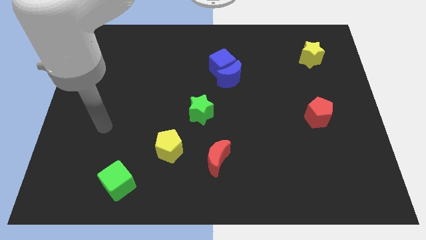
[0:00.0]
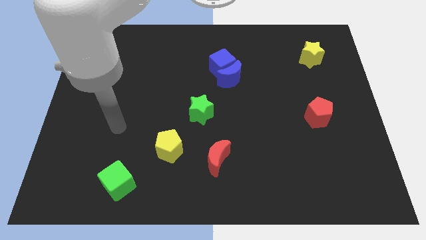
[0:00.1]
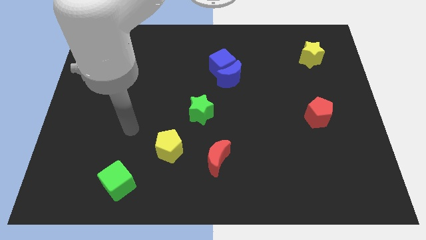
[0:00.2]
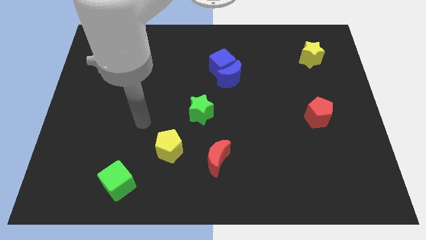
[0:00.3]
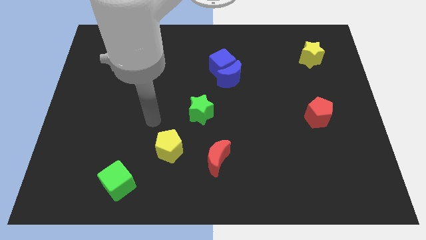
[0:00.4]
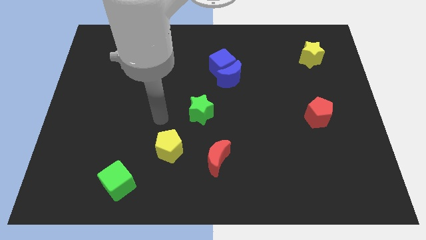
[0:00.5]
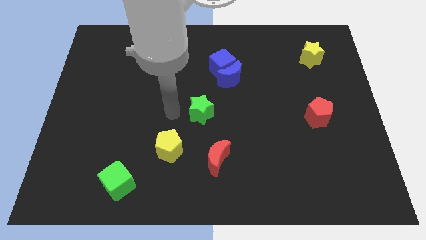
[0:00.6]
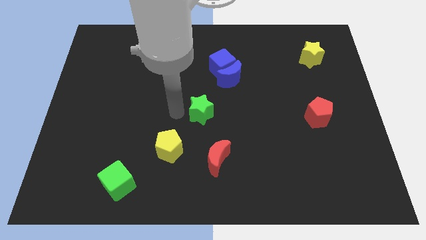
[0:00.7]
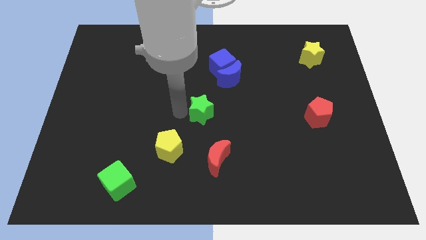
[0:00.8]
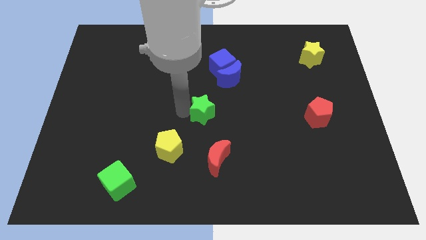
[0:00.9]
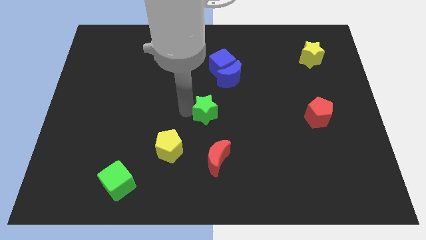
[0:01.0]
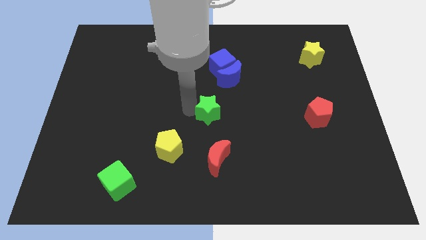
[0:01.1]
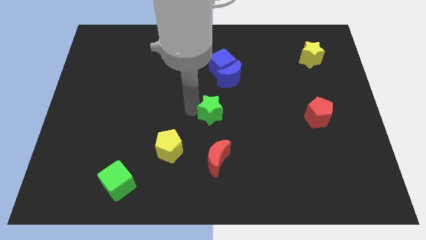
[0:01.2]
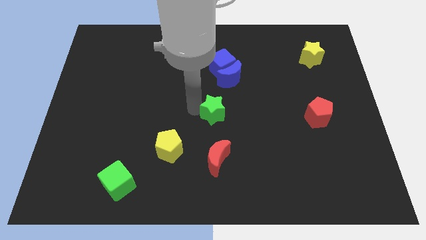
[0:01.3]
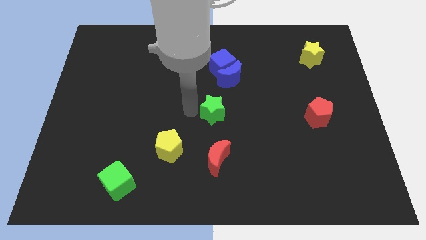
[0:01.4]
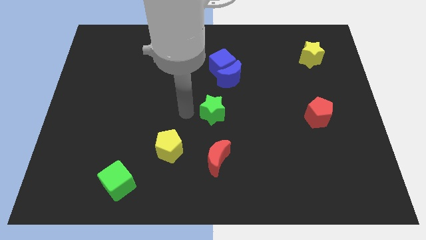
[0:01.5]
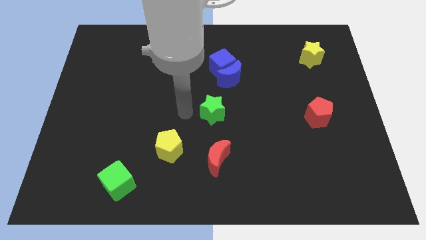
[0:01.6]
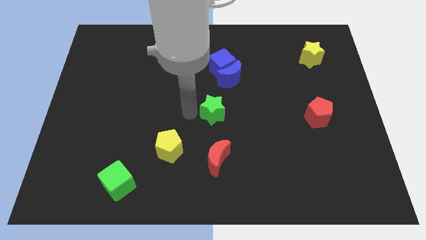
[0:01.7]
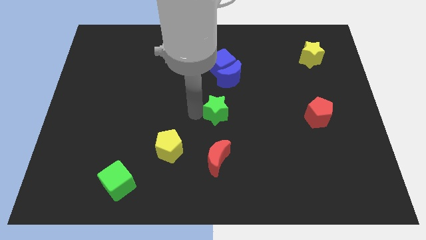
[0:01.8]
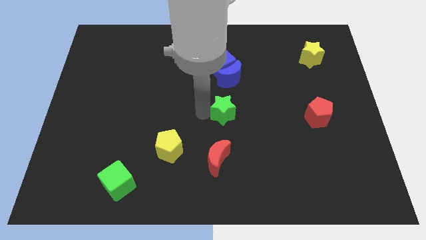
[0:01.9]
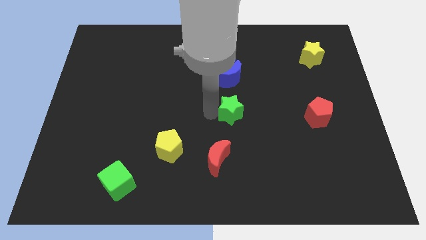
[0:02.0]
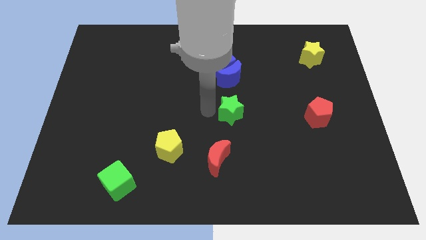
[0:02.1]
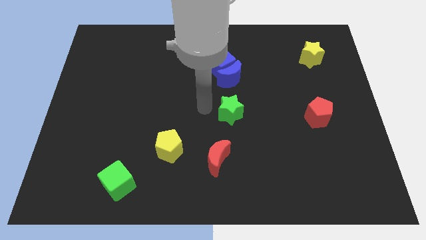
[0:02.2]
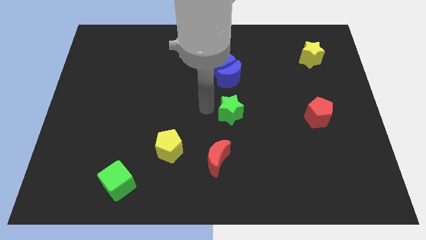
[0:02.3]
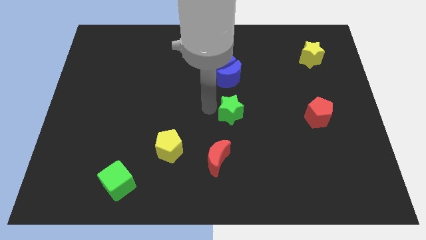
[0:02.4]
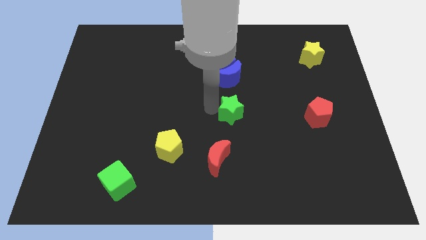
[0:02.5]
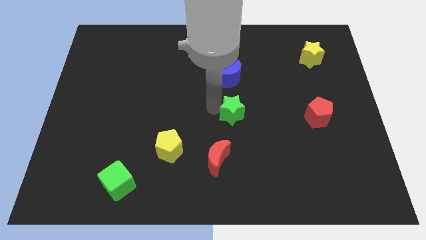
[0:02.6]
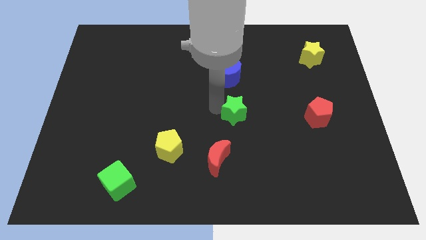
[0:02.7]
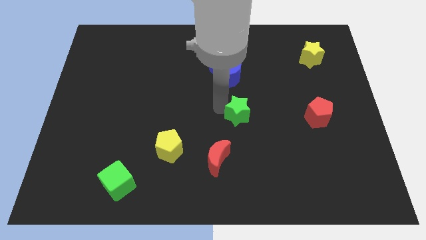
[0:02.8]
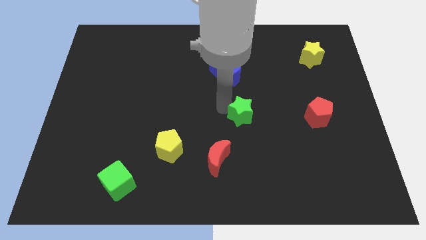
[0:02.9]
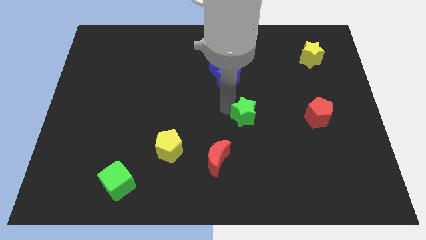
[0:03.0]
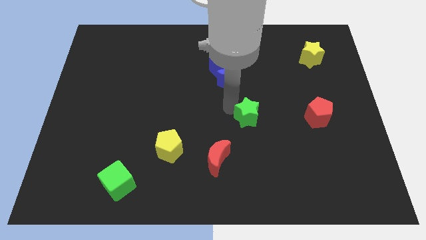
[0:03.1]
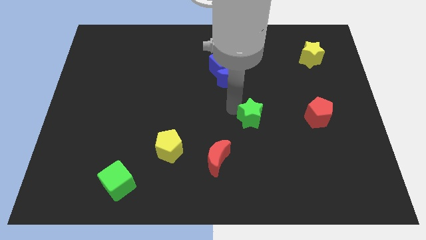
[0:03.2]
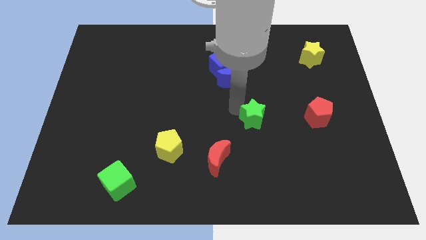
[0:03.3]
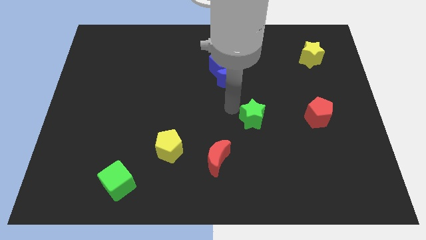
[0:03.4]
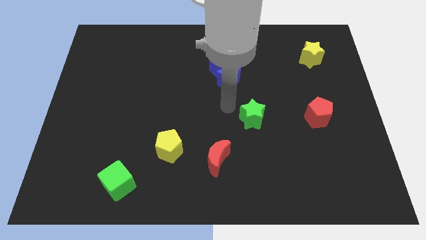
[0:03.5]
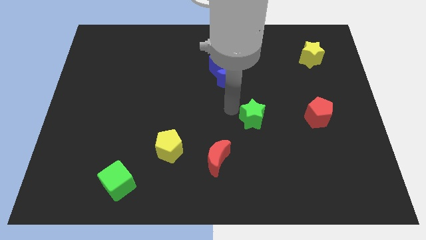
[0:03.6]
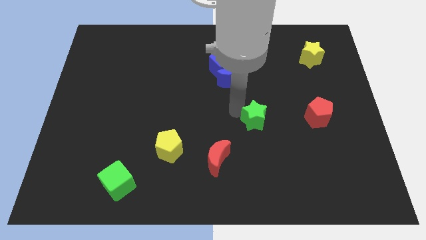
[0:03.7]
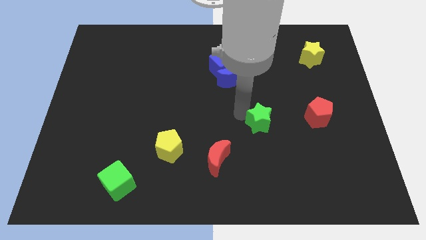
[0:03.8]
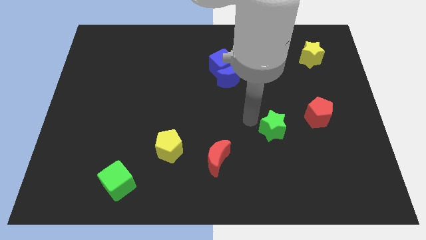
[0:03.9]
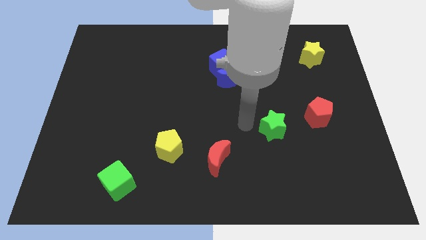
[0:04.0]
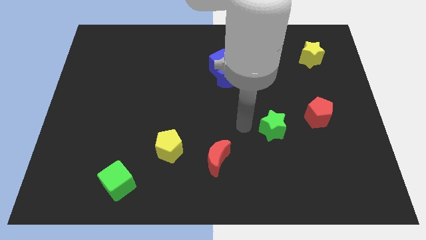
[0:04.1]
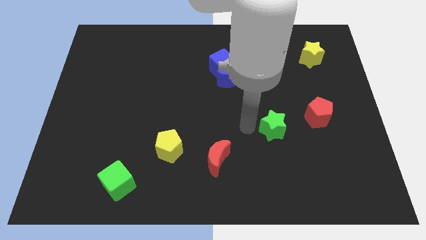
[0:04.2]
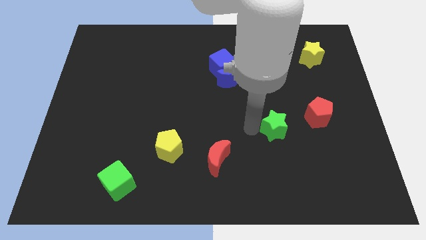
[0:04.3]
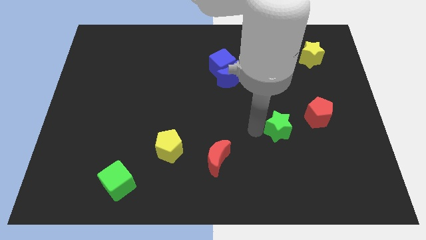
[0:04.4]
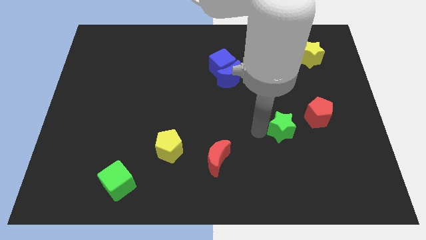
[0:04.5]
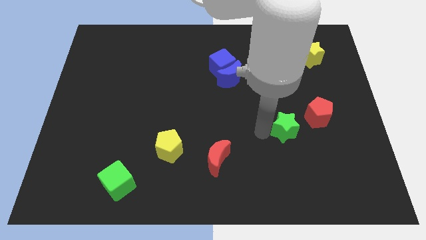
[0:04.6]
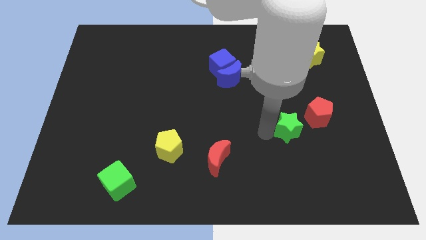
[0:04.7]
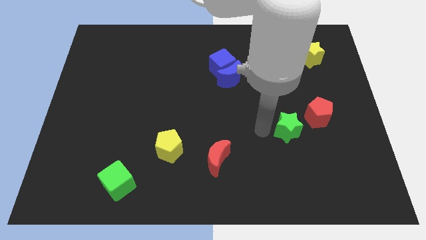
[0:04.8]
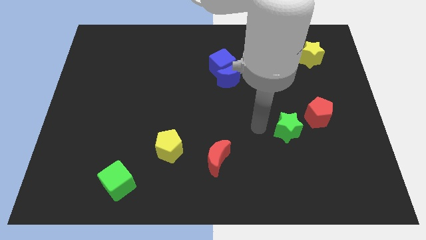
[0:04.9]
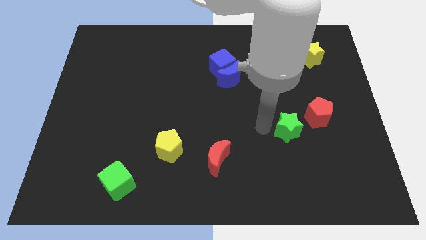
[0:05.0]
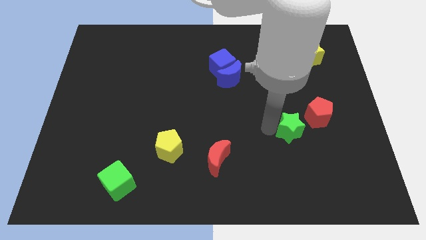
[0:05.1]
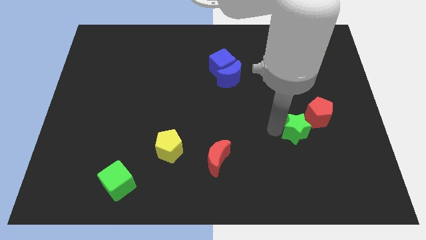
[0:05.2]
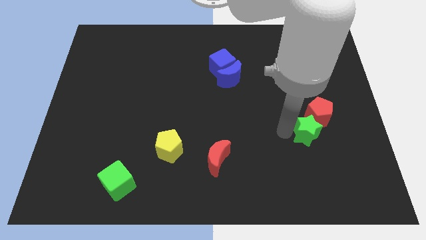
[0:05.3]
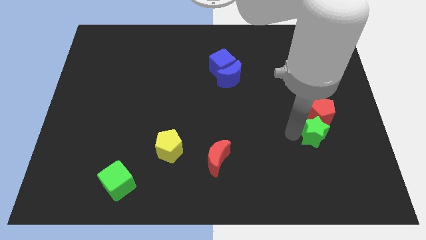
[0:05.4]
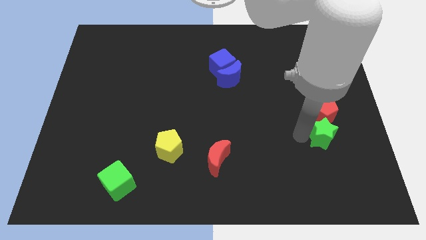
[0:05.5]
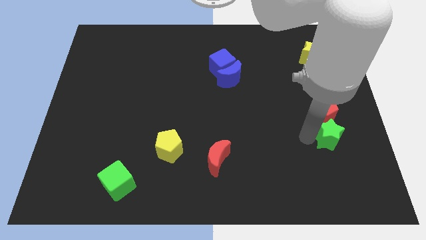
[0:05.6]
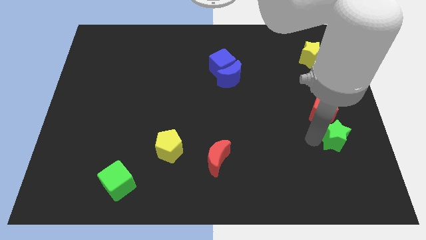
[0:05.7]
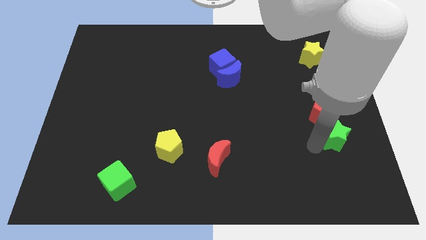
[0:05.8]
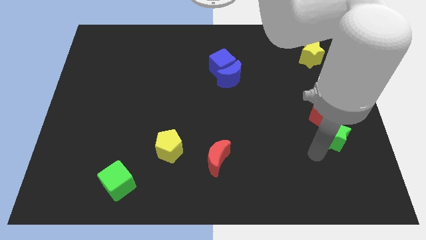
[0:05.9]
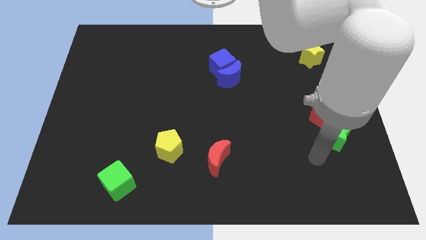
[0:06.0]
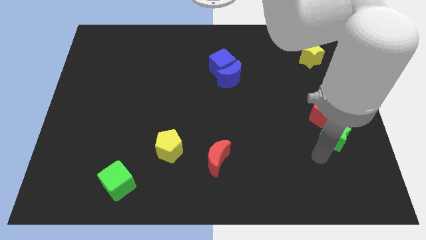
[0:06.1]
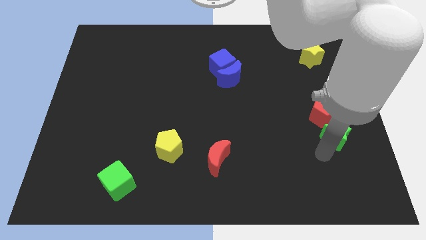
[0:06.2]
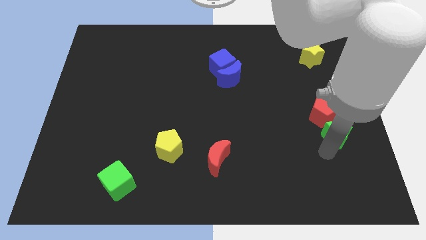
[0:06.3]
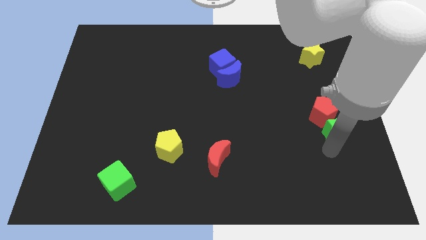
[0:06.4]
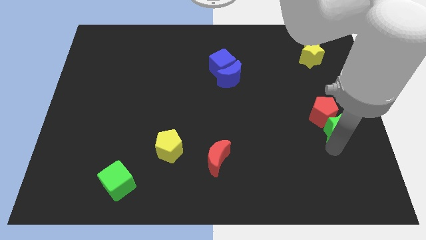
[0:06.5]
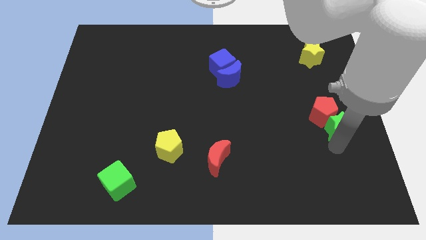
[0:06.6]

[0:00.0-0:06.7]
push the green star to the right side of the board

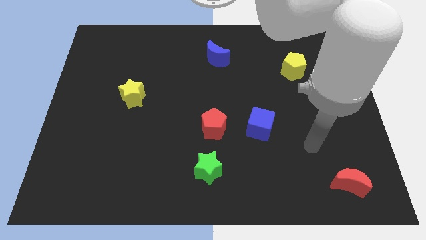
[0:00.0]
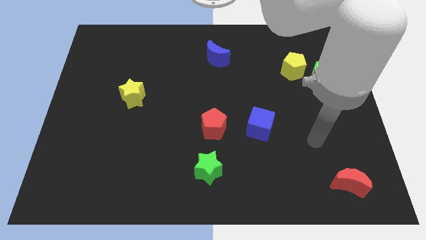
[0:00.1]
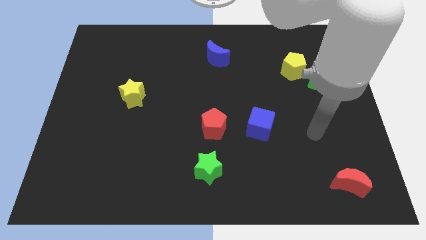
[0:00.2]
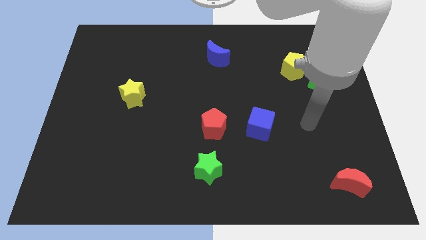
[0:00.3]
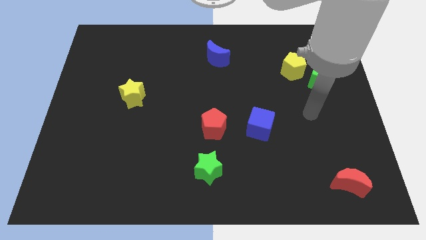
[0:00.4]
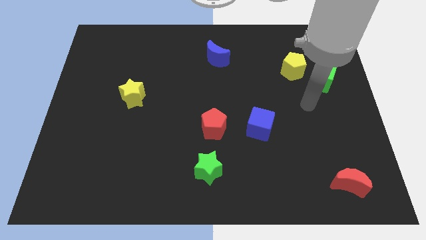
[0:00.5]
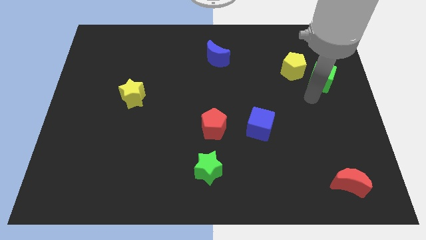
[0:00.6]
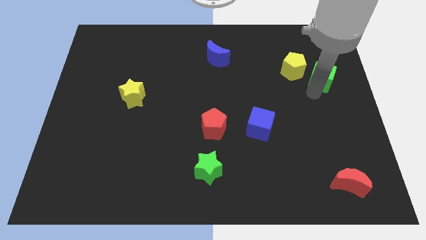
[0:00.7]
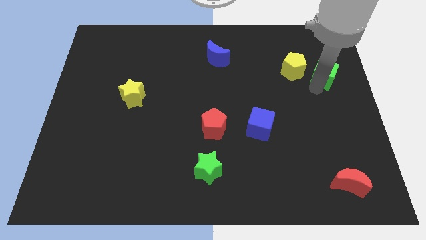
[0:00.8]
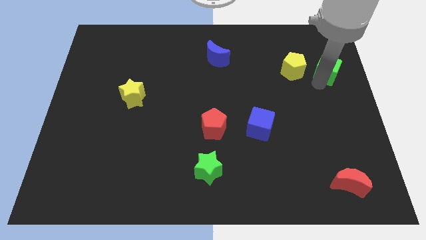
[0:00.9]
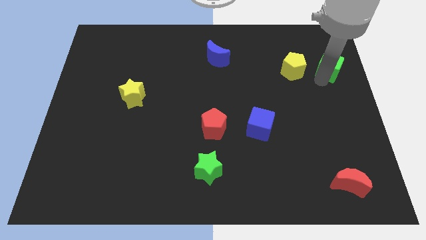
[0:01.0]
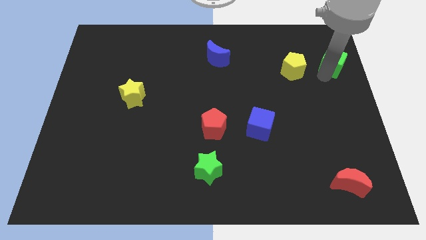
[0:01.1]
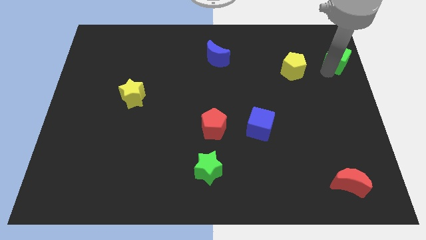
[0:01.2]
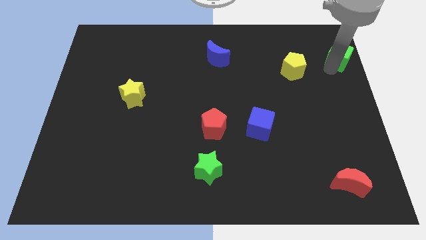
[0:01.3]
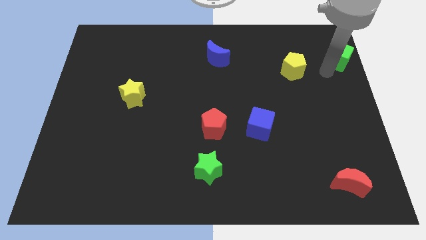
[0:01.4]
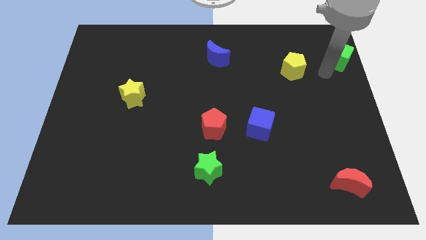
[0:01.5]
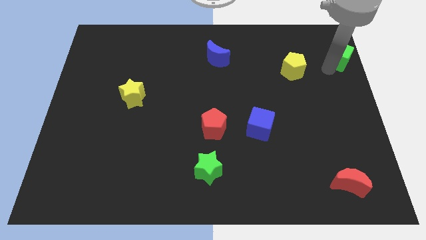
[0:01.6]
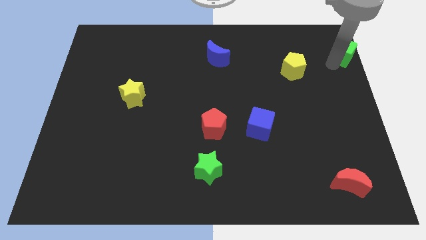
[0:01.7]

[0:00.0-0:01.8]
move the green cube to the top right of the board
